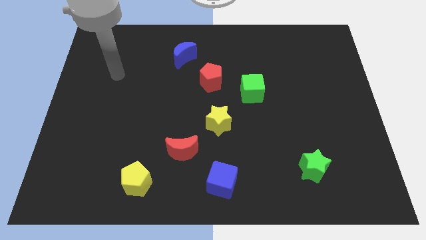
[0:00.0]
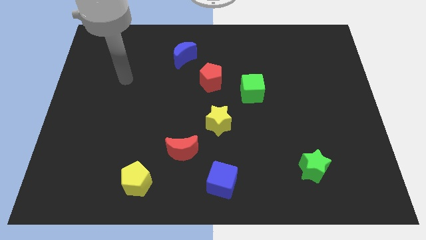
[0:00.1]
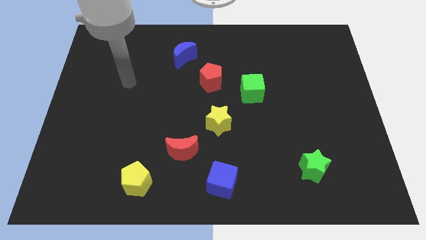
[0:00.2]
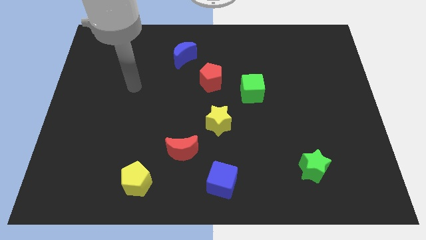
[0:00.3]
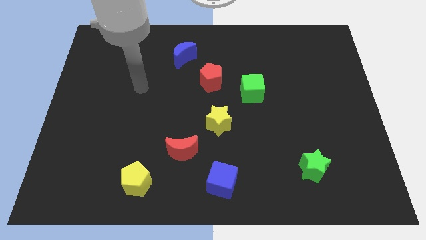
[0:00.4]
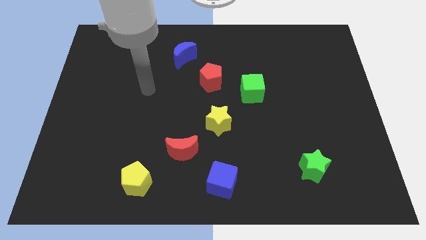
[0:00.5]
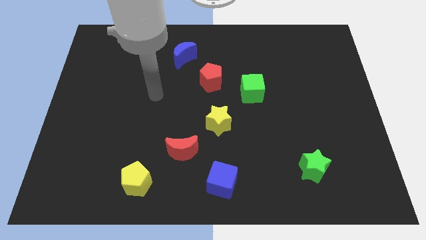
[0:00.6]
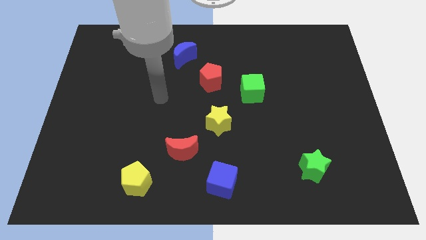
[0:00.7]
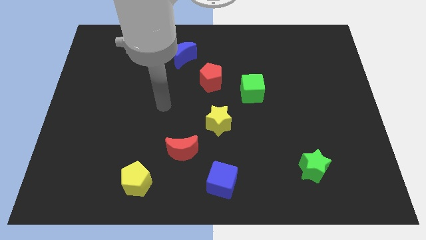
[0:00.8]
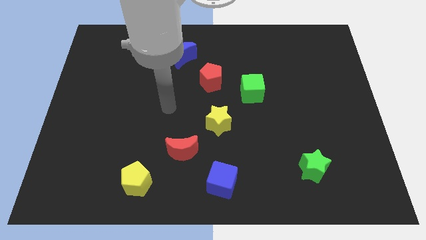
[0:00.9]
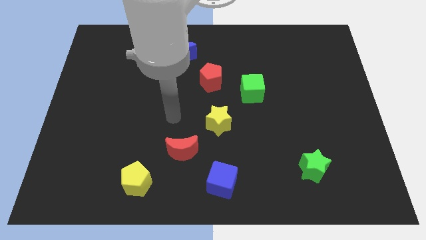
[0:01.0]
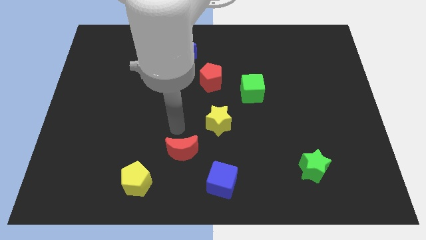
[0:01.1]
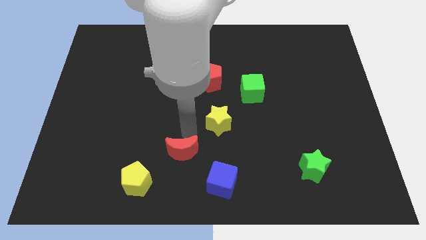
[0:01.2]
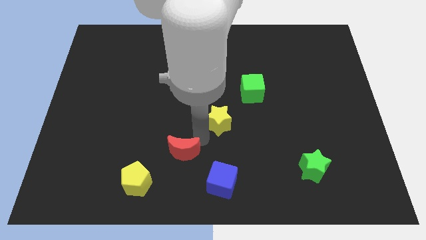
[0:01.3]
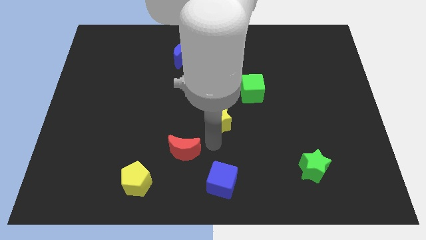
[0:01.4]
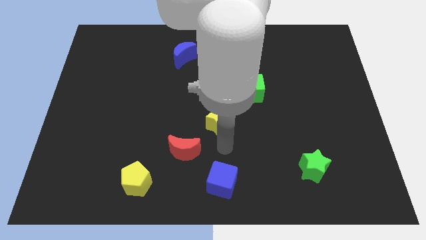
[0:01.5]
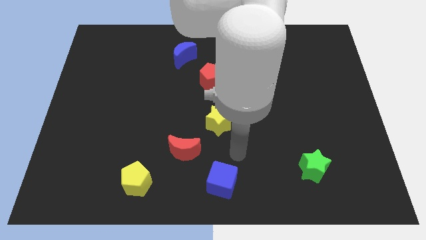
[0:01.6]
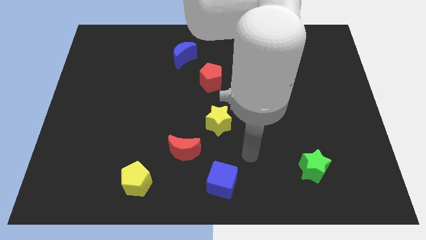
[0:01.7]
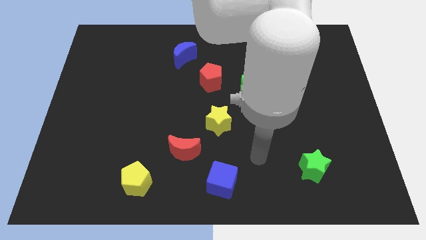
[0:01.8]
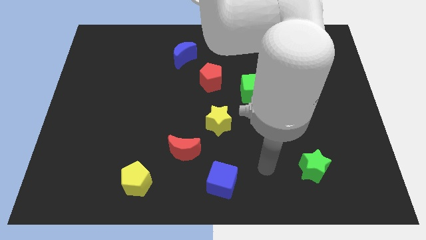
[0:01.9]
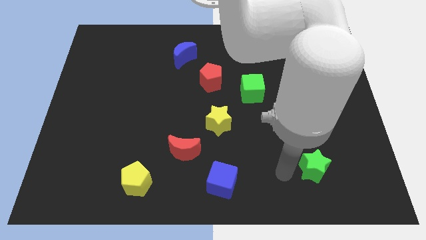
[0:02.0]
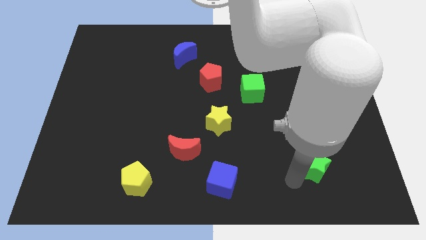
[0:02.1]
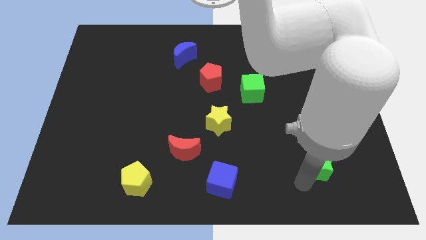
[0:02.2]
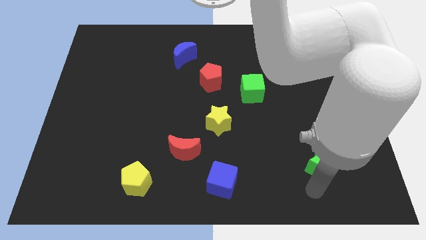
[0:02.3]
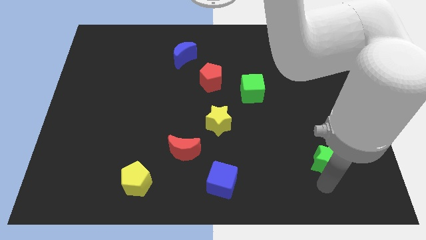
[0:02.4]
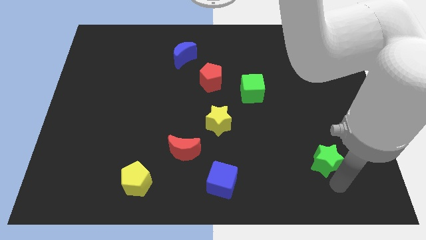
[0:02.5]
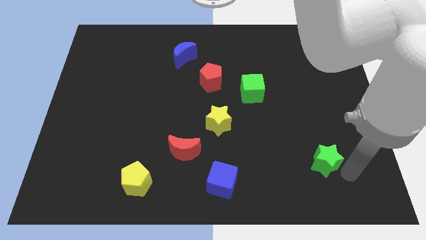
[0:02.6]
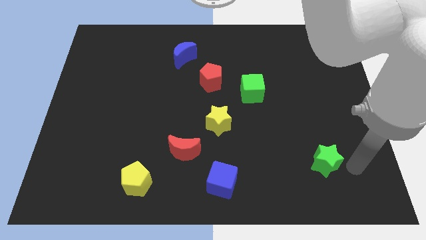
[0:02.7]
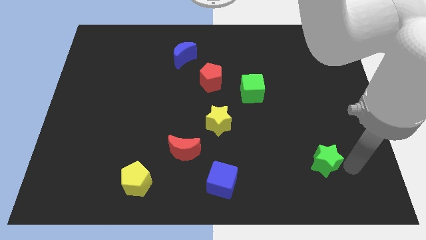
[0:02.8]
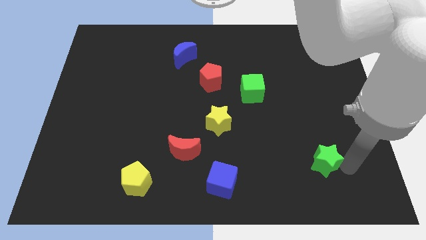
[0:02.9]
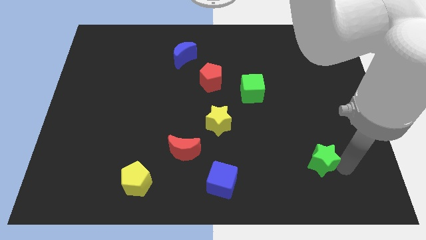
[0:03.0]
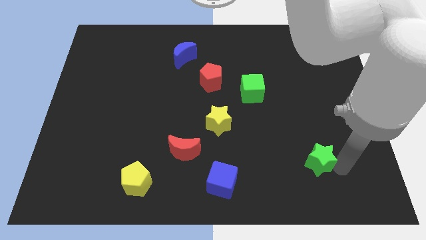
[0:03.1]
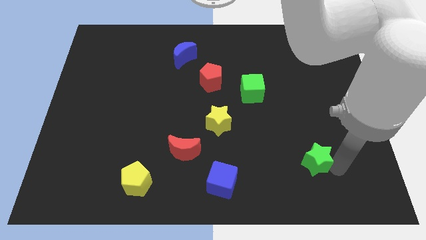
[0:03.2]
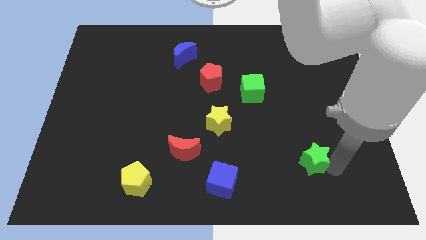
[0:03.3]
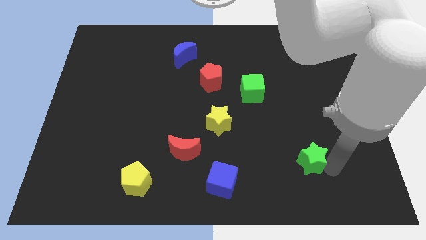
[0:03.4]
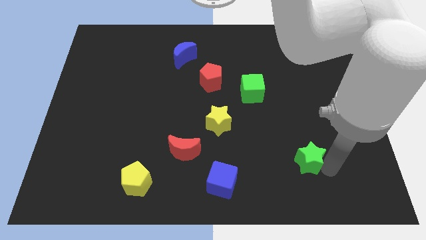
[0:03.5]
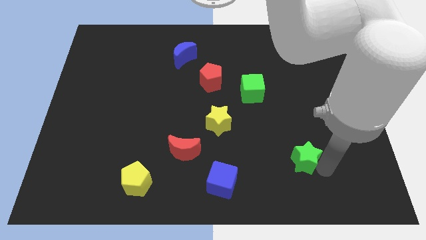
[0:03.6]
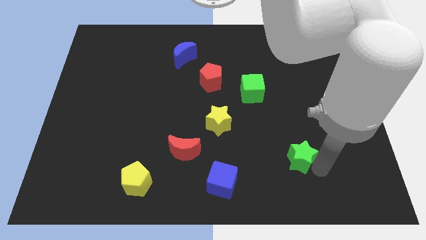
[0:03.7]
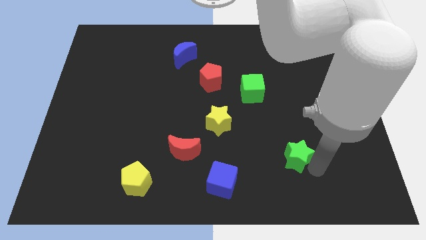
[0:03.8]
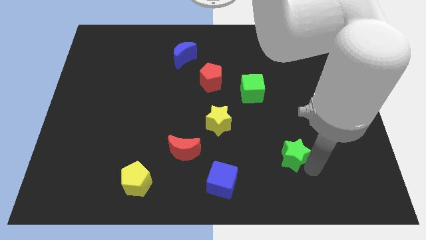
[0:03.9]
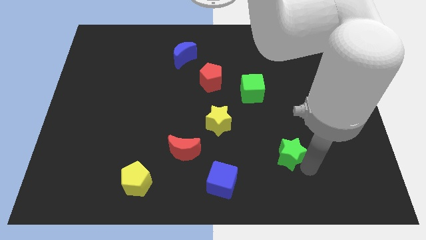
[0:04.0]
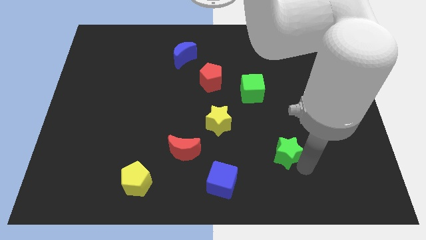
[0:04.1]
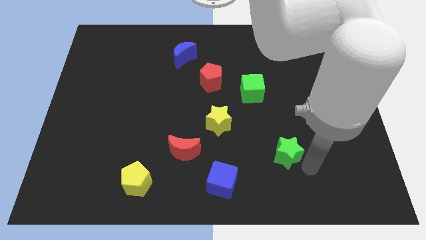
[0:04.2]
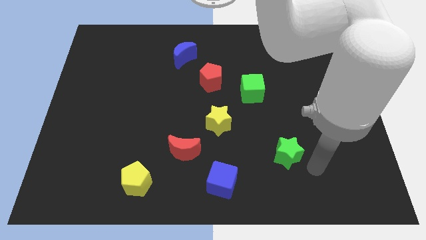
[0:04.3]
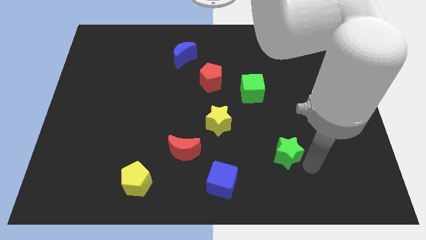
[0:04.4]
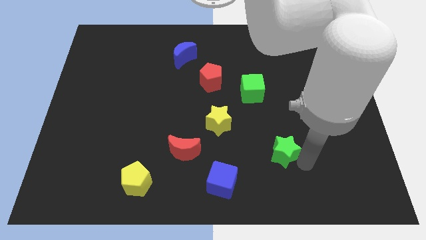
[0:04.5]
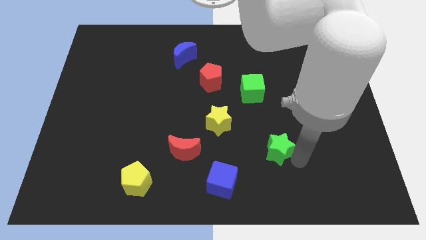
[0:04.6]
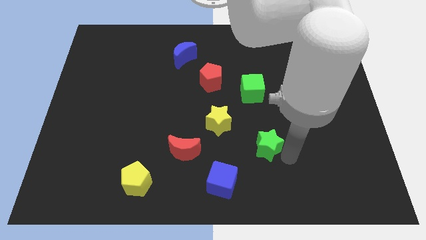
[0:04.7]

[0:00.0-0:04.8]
push the green star below the green cube

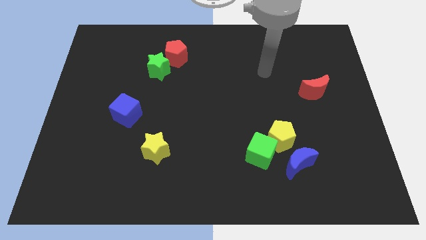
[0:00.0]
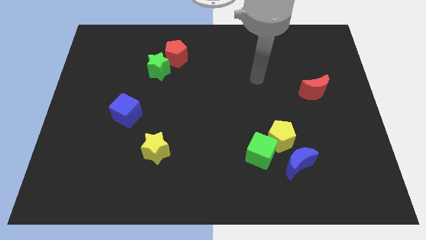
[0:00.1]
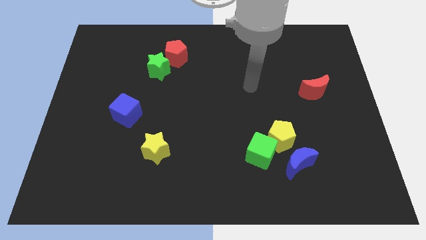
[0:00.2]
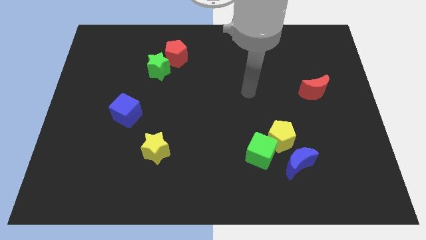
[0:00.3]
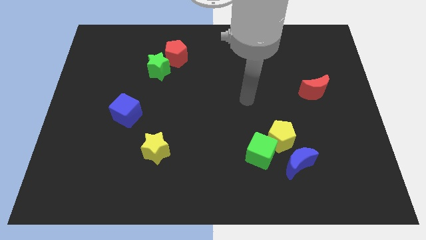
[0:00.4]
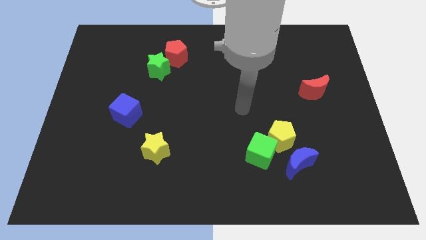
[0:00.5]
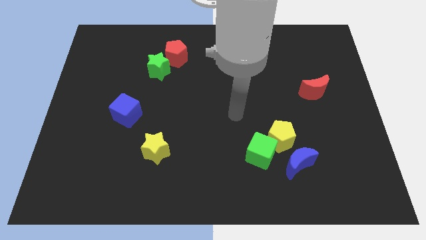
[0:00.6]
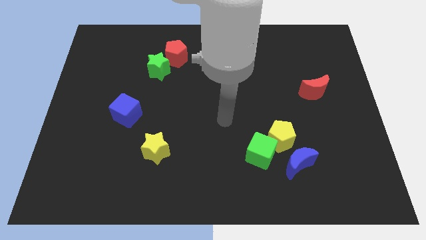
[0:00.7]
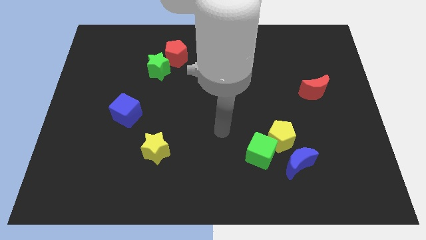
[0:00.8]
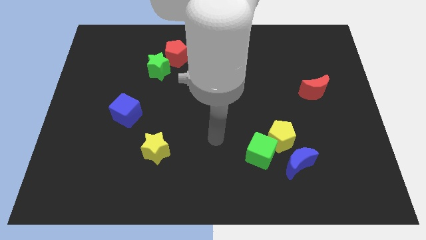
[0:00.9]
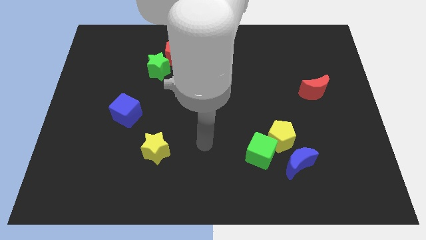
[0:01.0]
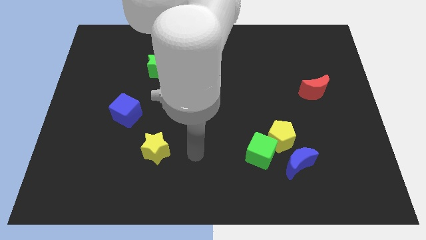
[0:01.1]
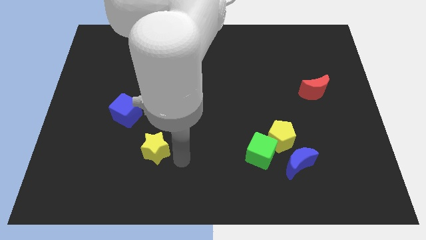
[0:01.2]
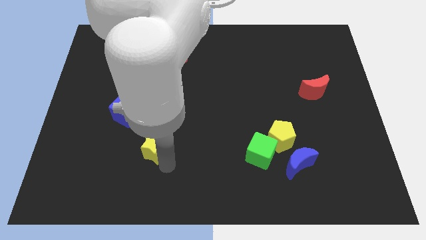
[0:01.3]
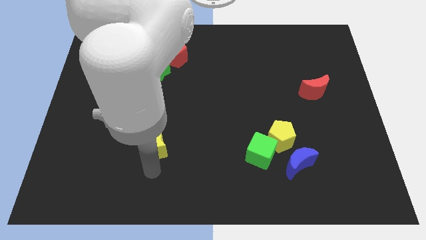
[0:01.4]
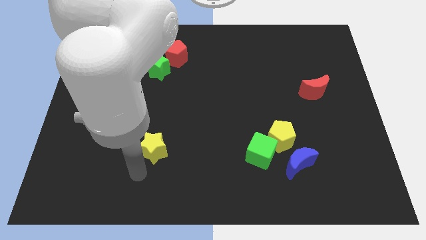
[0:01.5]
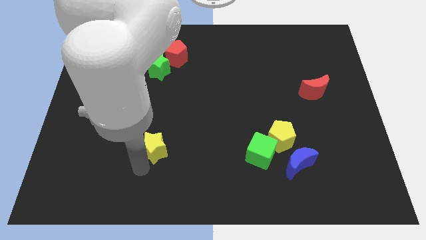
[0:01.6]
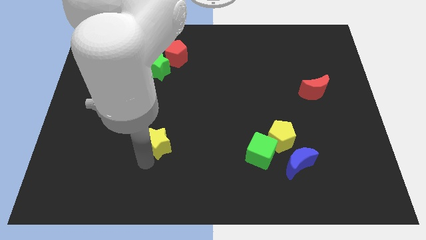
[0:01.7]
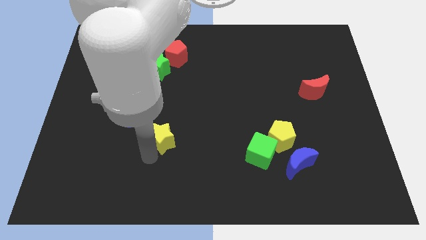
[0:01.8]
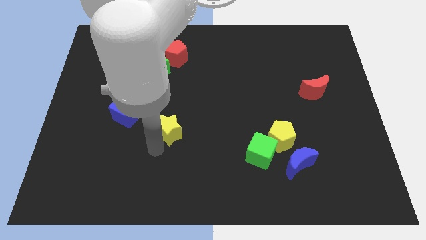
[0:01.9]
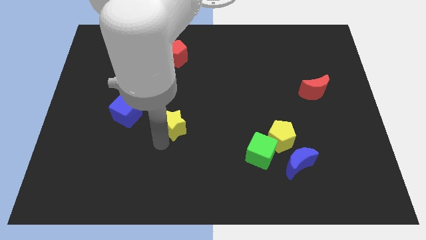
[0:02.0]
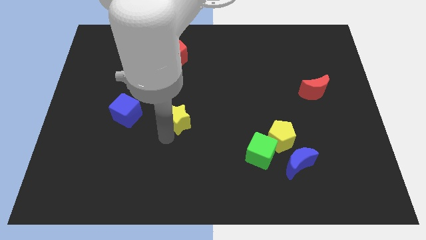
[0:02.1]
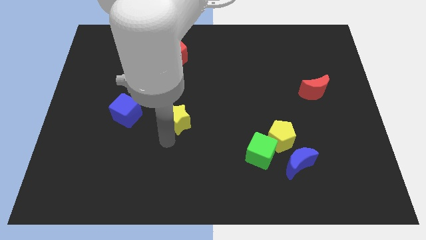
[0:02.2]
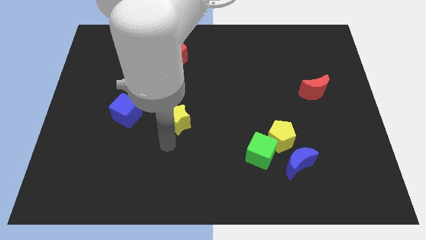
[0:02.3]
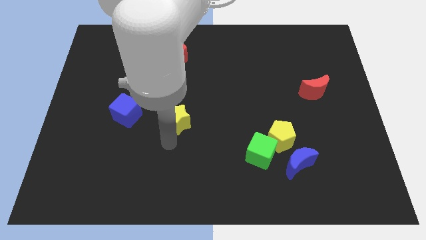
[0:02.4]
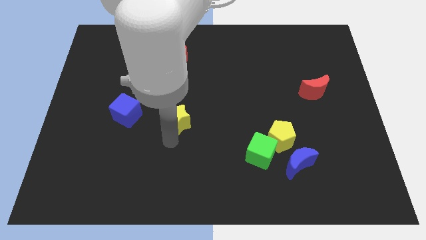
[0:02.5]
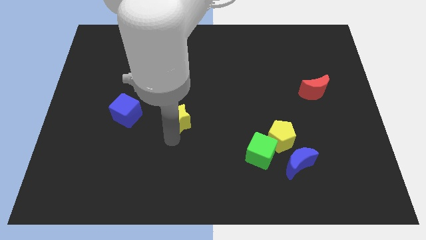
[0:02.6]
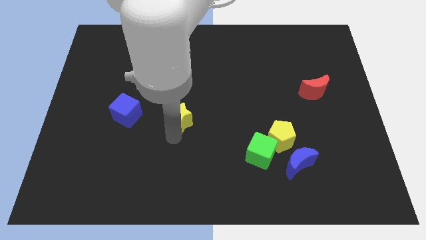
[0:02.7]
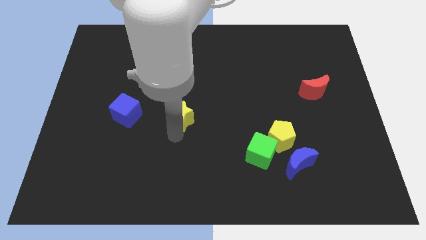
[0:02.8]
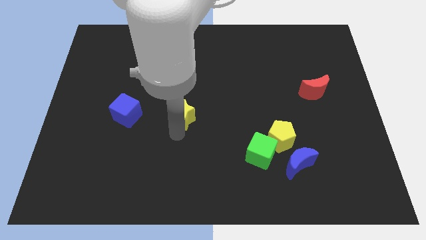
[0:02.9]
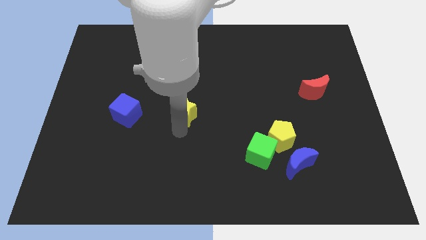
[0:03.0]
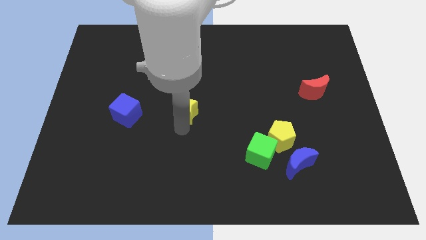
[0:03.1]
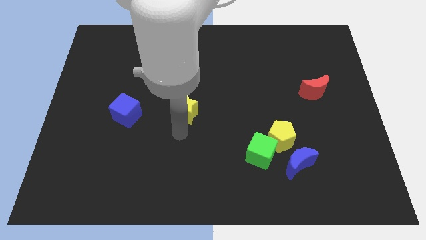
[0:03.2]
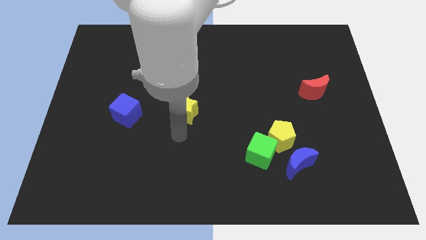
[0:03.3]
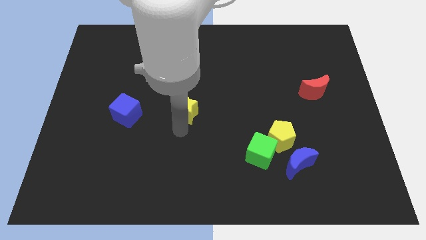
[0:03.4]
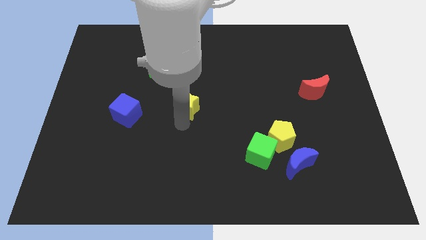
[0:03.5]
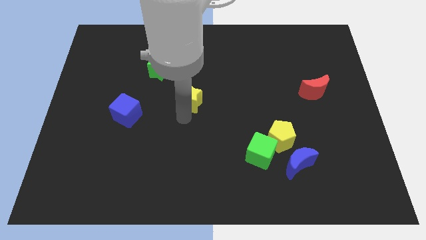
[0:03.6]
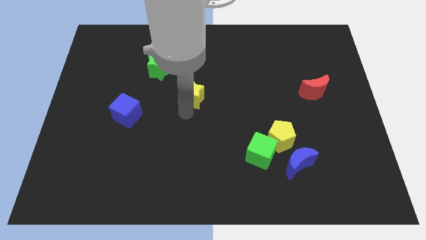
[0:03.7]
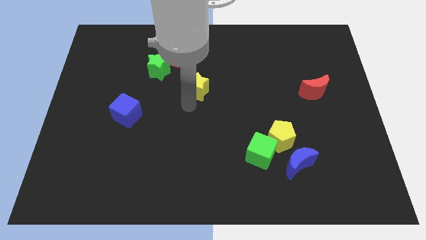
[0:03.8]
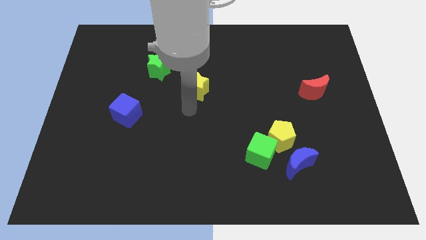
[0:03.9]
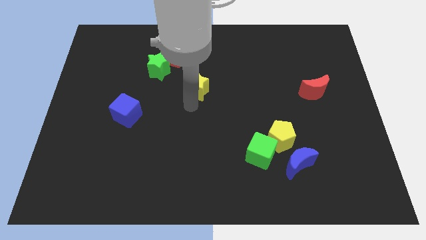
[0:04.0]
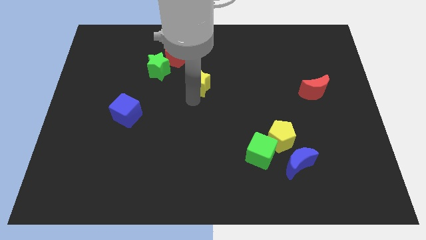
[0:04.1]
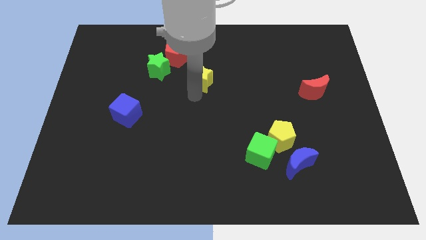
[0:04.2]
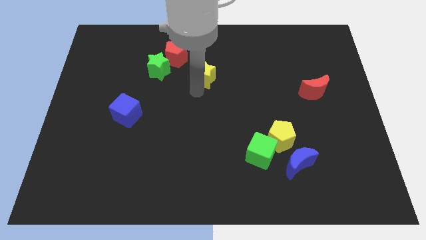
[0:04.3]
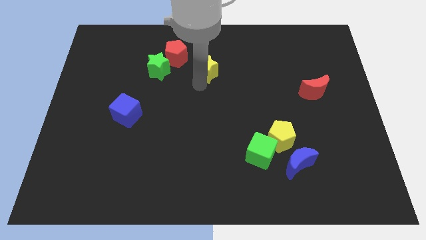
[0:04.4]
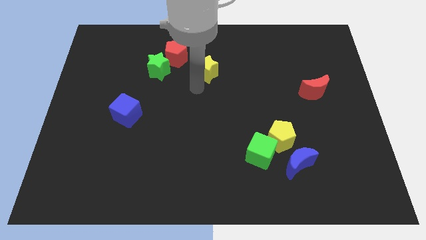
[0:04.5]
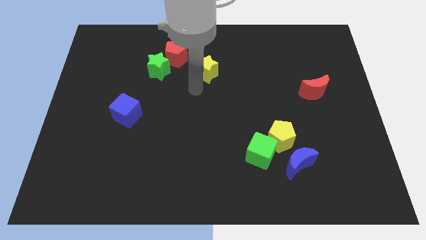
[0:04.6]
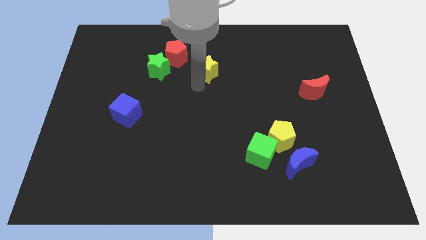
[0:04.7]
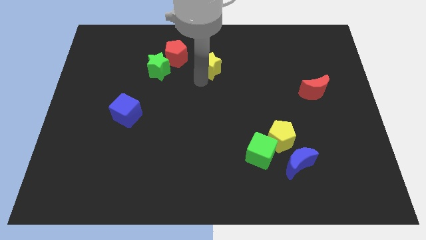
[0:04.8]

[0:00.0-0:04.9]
move the yellow star right of the red pentagon
